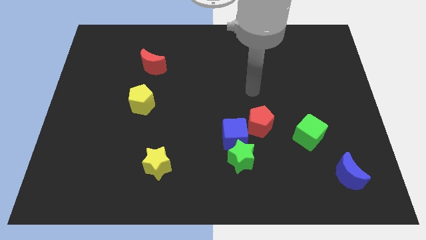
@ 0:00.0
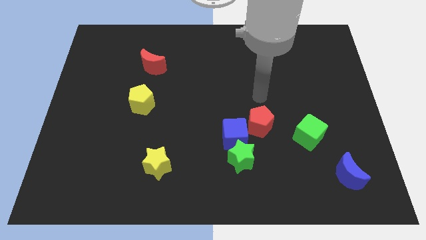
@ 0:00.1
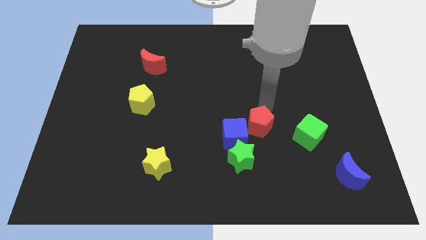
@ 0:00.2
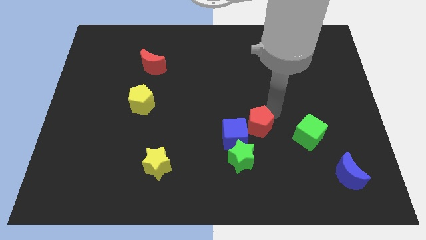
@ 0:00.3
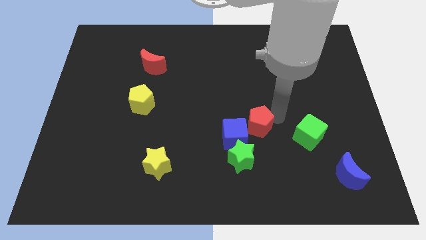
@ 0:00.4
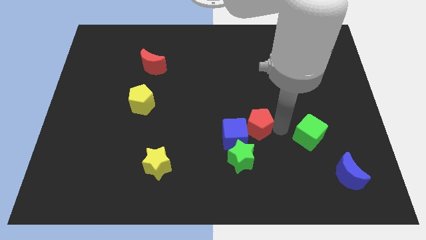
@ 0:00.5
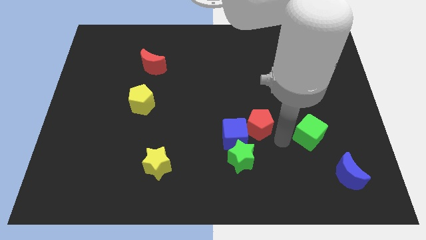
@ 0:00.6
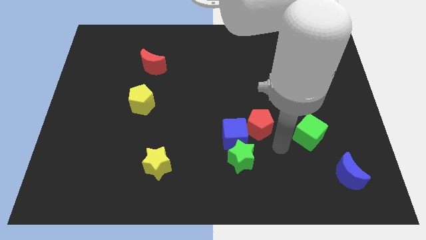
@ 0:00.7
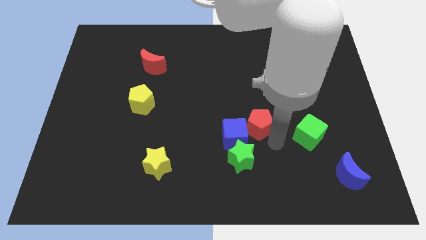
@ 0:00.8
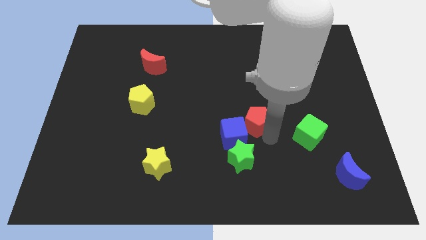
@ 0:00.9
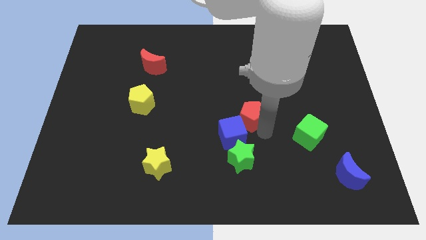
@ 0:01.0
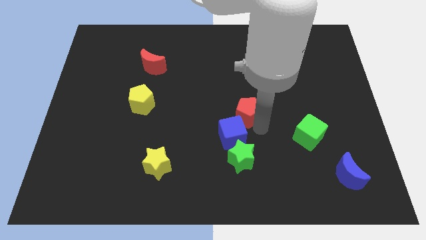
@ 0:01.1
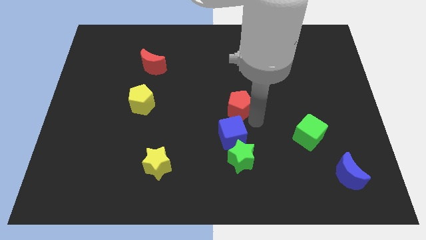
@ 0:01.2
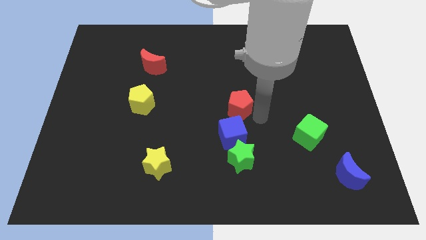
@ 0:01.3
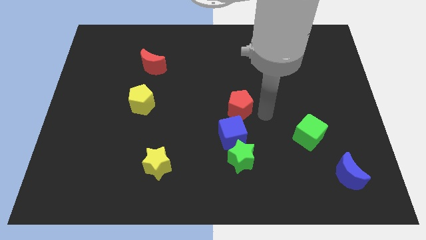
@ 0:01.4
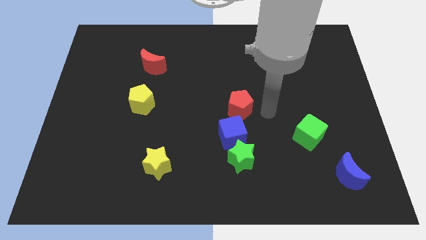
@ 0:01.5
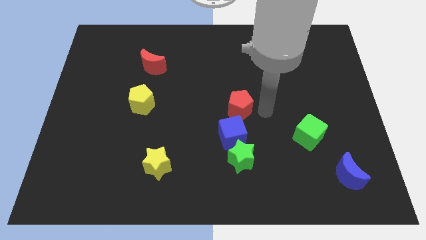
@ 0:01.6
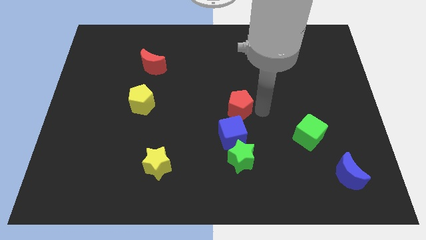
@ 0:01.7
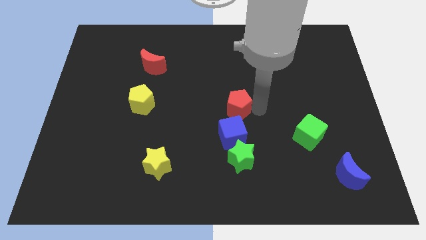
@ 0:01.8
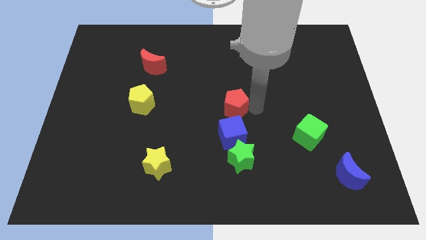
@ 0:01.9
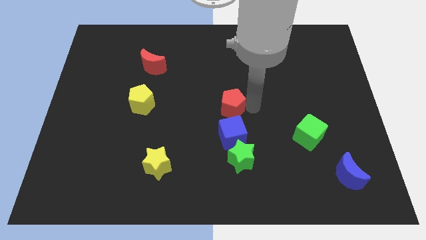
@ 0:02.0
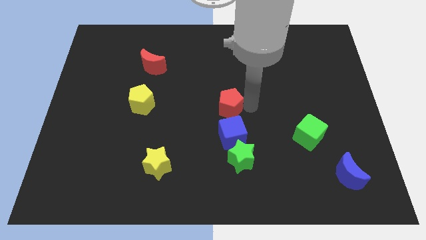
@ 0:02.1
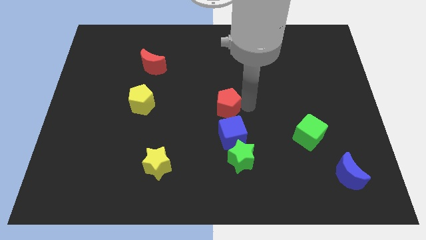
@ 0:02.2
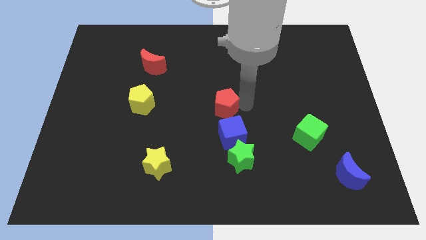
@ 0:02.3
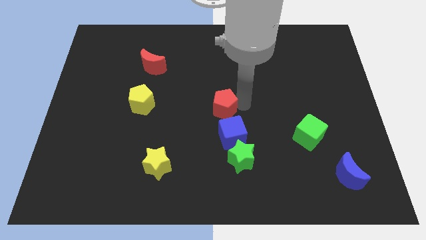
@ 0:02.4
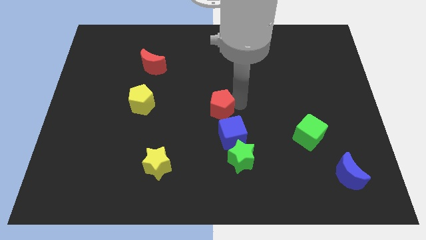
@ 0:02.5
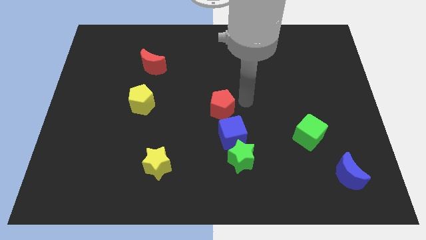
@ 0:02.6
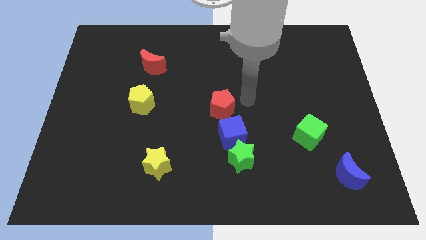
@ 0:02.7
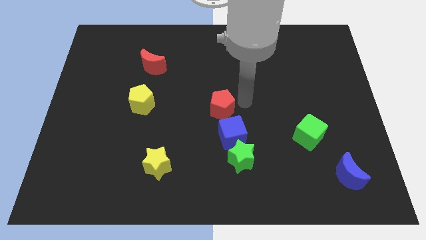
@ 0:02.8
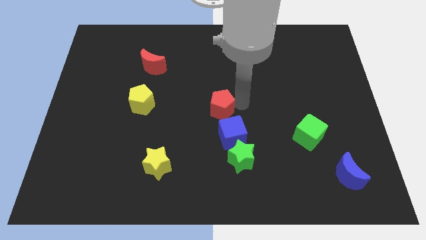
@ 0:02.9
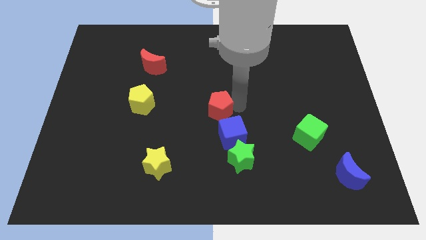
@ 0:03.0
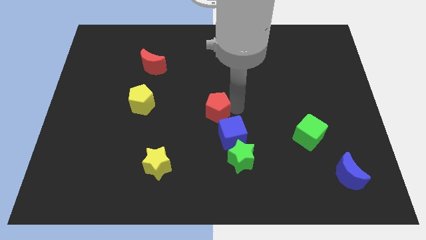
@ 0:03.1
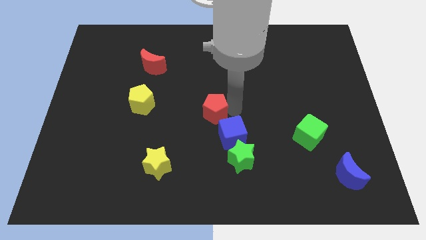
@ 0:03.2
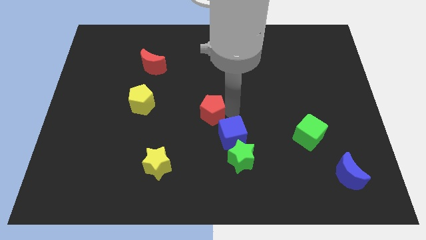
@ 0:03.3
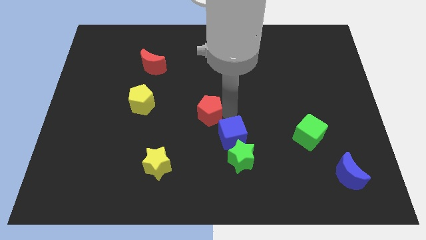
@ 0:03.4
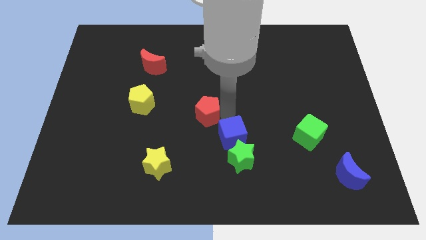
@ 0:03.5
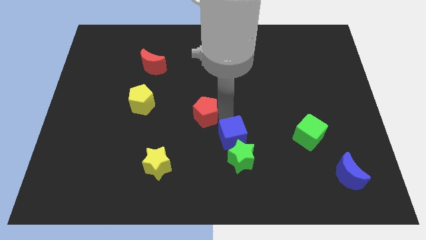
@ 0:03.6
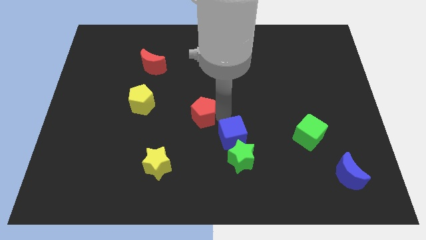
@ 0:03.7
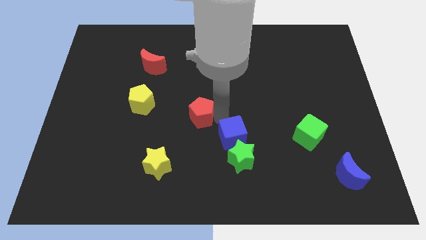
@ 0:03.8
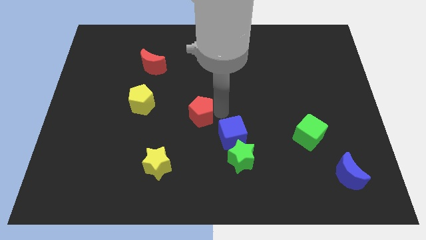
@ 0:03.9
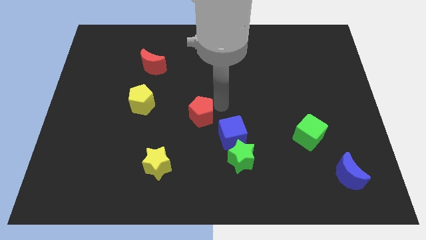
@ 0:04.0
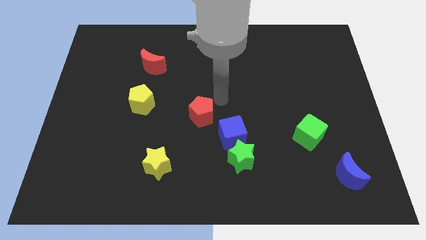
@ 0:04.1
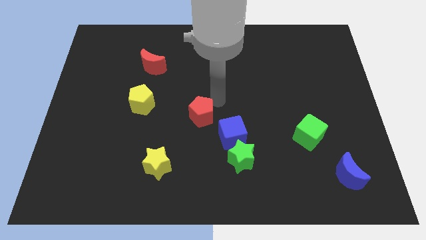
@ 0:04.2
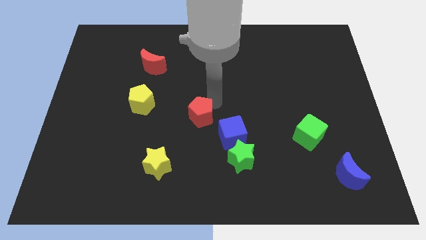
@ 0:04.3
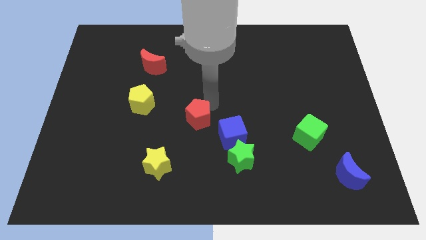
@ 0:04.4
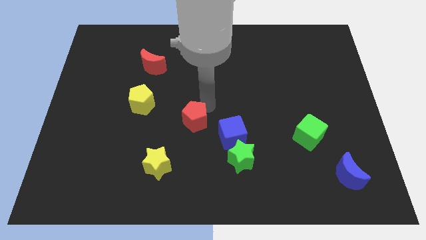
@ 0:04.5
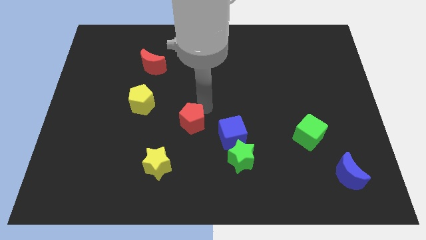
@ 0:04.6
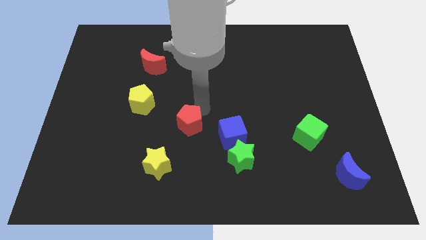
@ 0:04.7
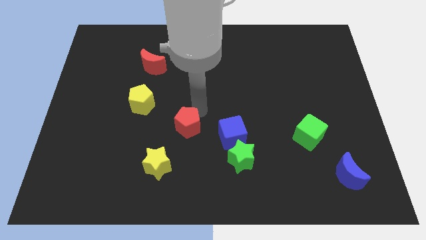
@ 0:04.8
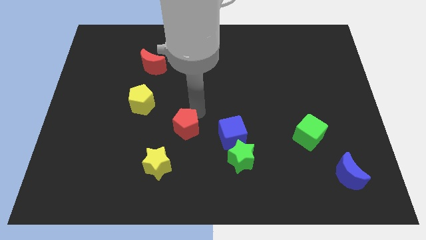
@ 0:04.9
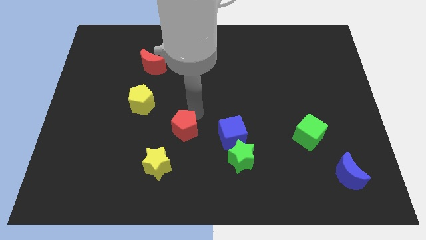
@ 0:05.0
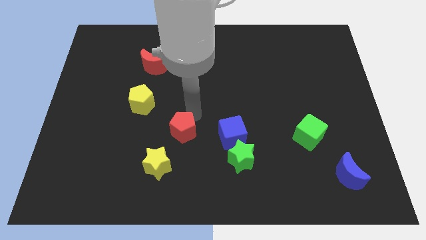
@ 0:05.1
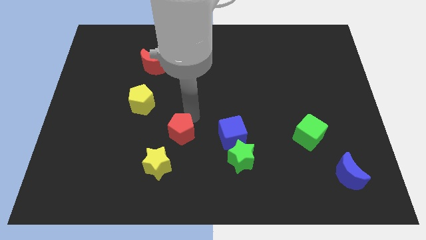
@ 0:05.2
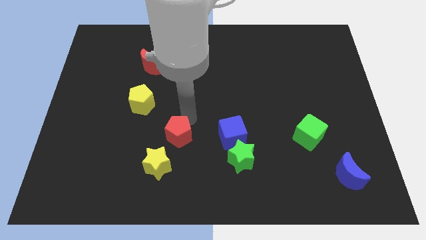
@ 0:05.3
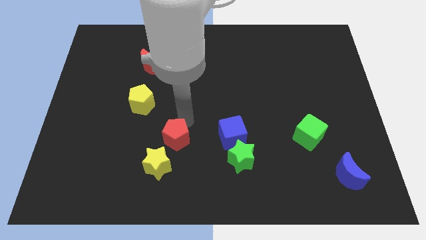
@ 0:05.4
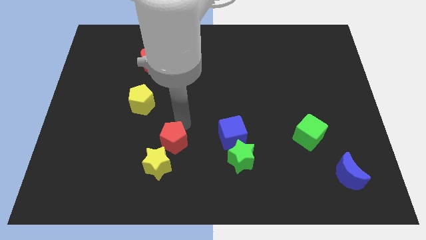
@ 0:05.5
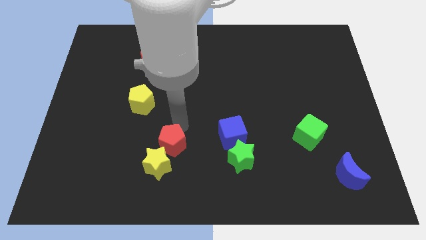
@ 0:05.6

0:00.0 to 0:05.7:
slide the red pentagon to the yellow star

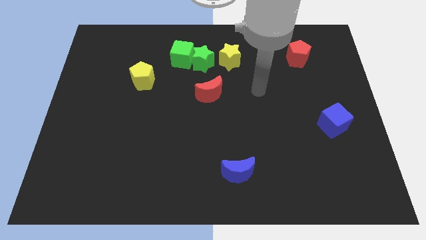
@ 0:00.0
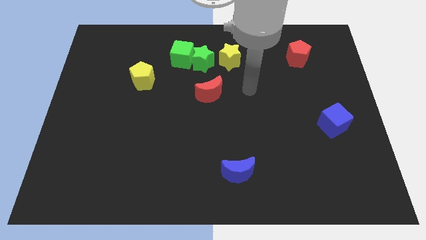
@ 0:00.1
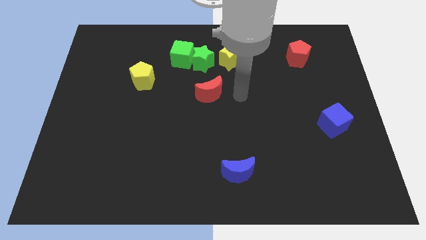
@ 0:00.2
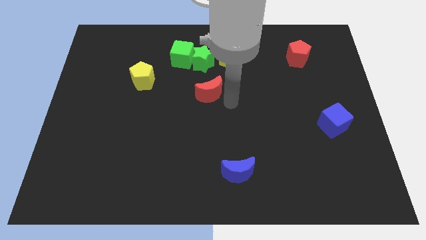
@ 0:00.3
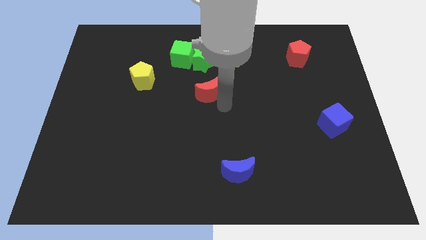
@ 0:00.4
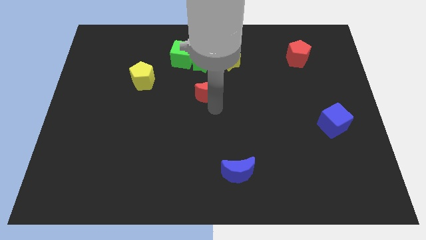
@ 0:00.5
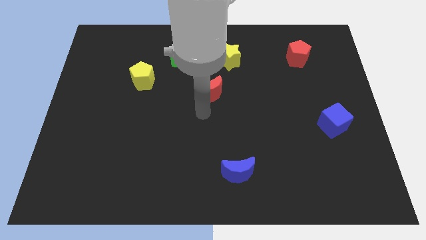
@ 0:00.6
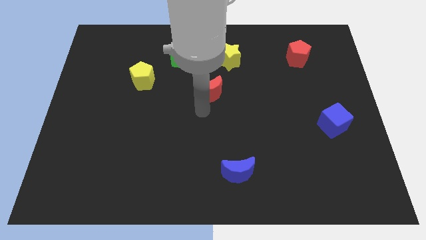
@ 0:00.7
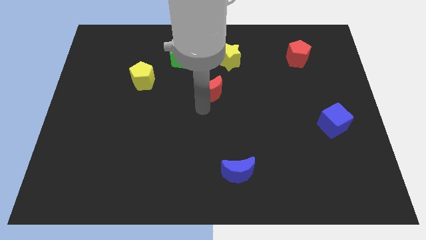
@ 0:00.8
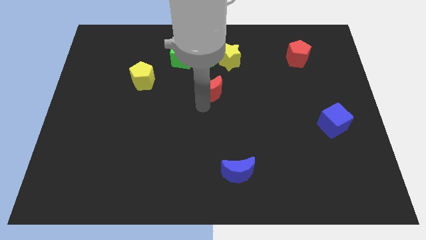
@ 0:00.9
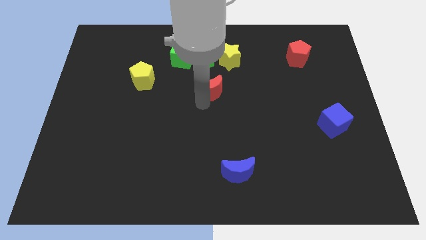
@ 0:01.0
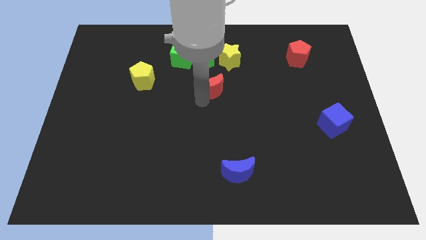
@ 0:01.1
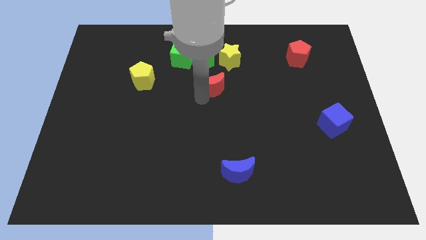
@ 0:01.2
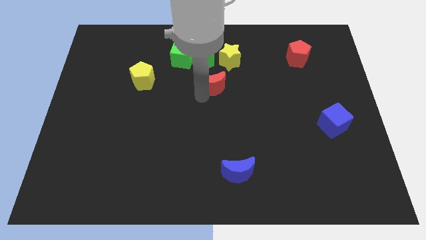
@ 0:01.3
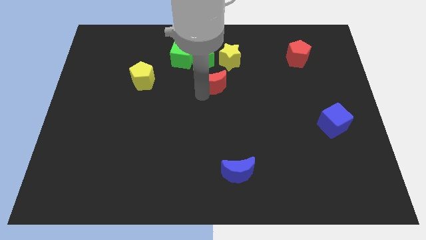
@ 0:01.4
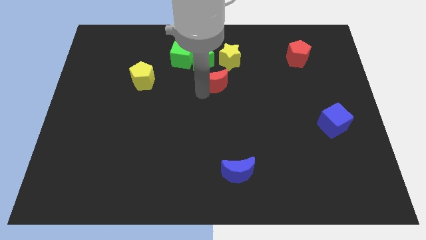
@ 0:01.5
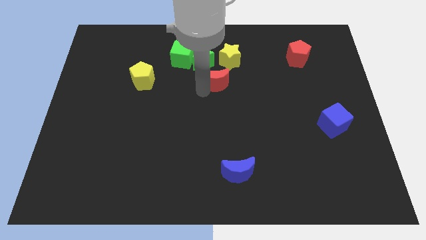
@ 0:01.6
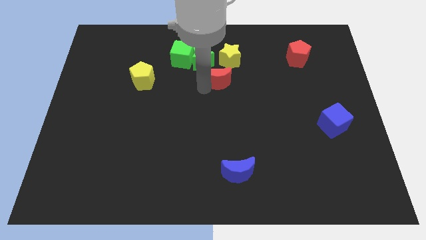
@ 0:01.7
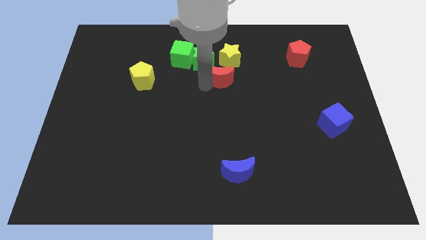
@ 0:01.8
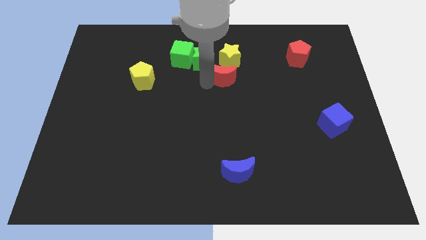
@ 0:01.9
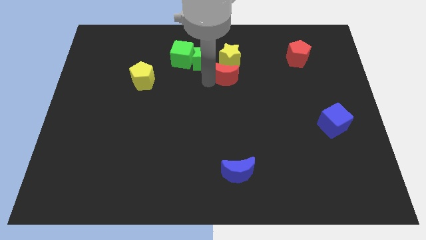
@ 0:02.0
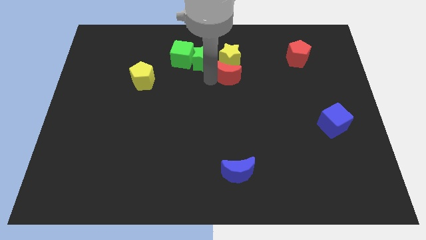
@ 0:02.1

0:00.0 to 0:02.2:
push the red moon close to the yellow star
